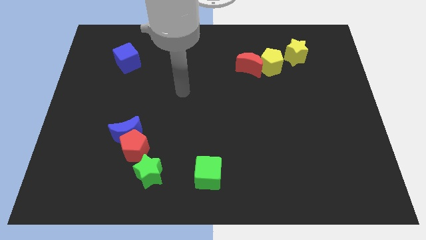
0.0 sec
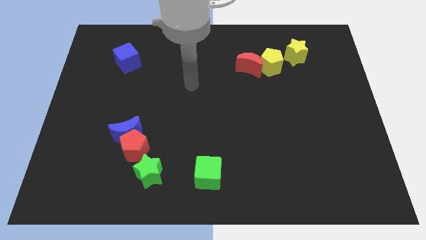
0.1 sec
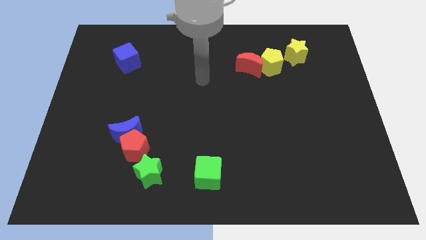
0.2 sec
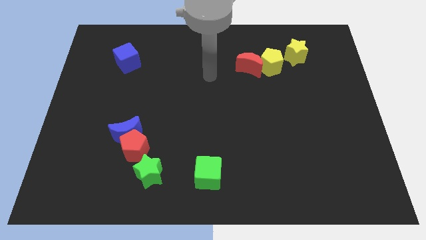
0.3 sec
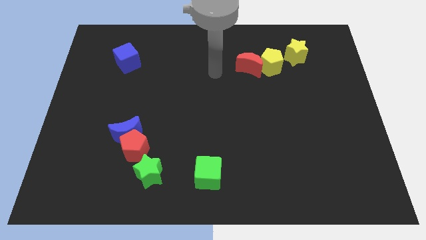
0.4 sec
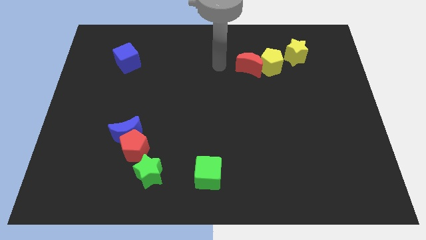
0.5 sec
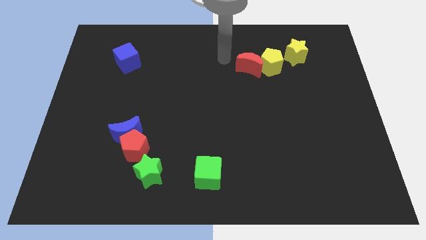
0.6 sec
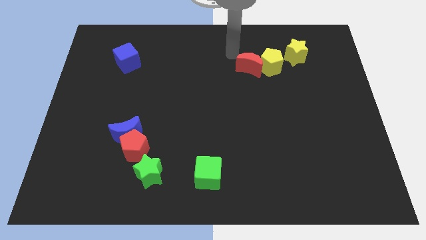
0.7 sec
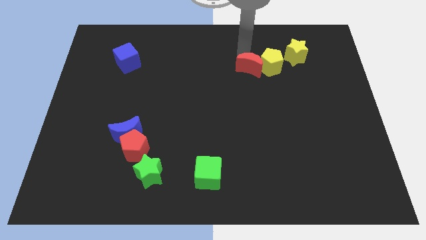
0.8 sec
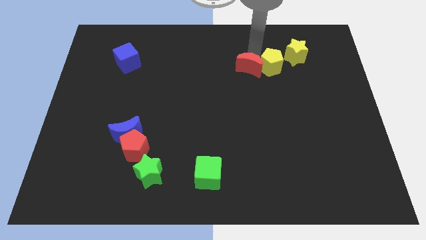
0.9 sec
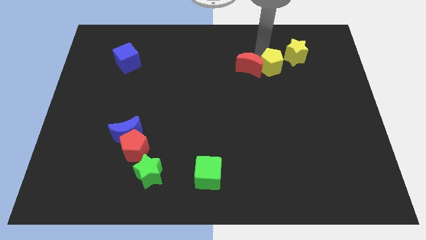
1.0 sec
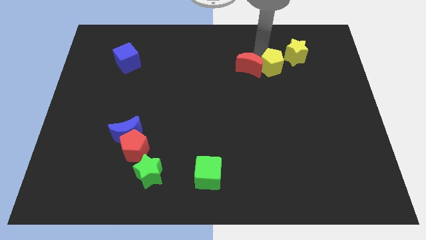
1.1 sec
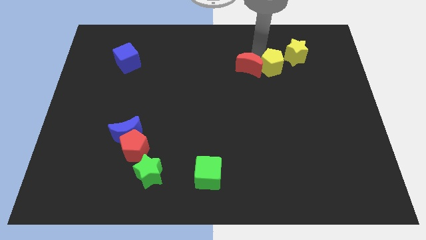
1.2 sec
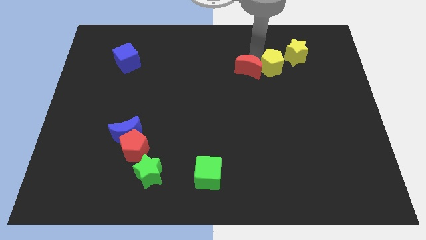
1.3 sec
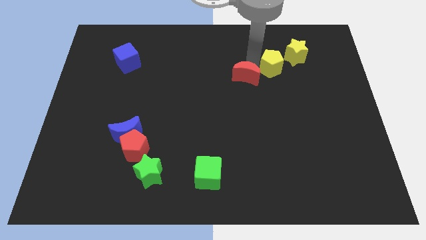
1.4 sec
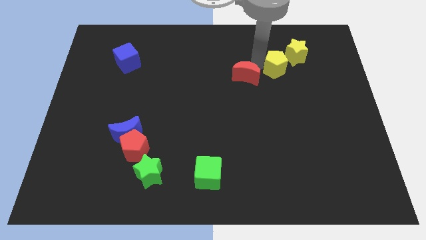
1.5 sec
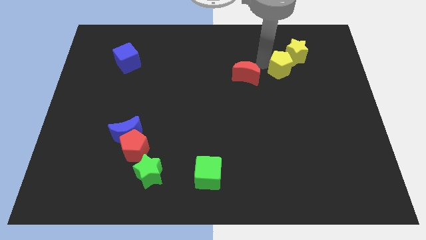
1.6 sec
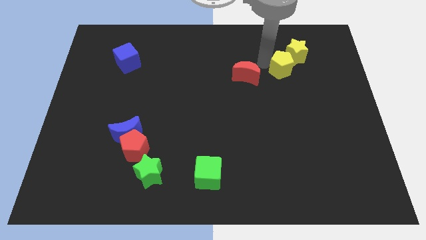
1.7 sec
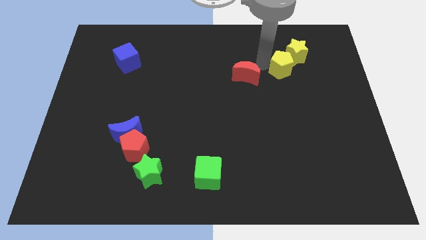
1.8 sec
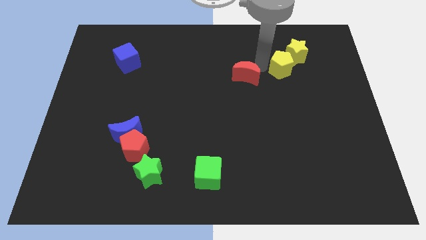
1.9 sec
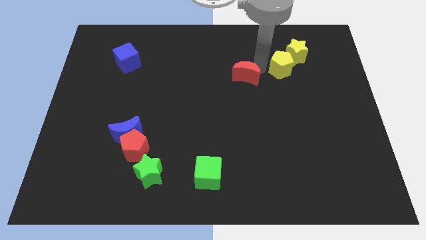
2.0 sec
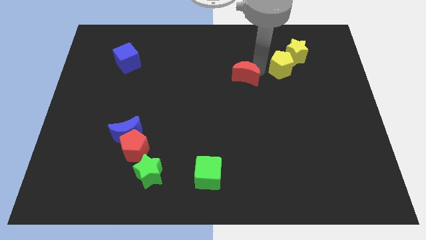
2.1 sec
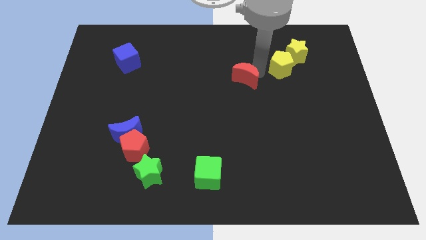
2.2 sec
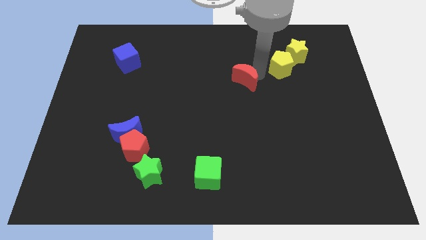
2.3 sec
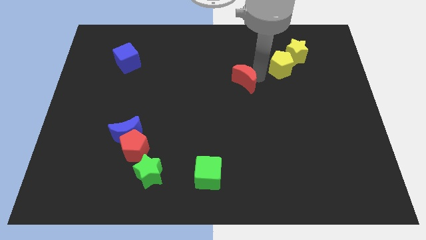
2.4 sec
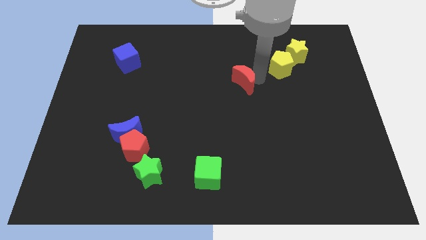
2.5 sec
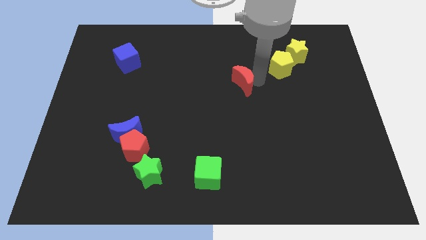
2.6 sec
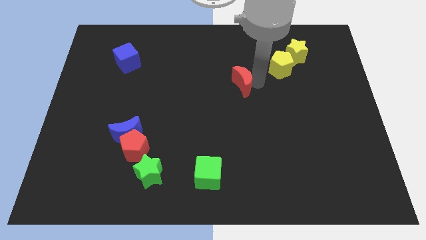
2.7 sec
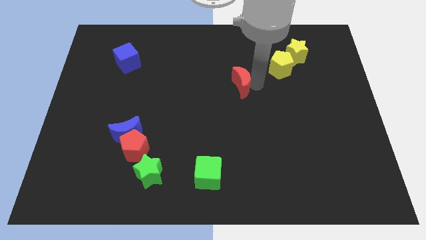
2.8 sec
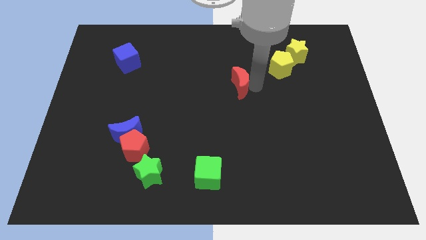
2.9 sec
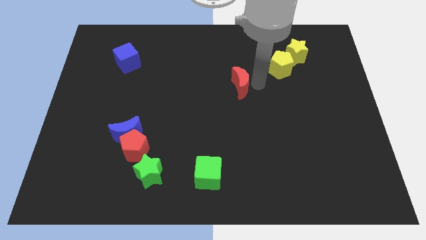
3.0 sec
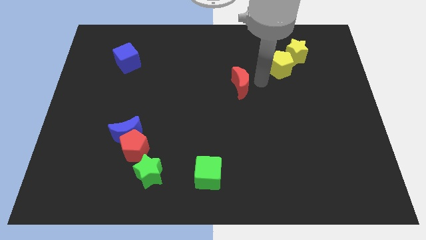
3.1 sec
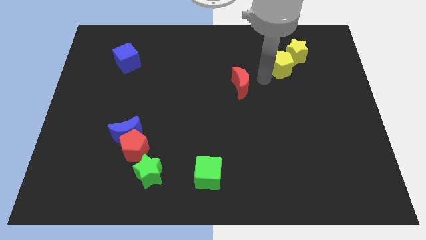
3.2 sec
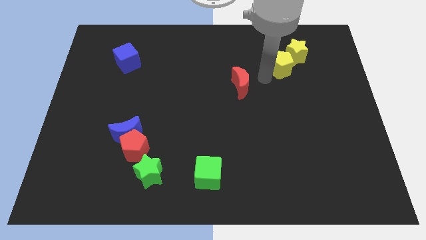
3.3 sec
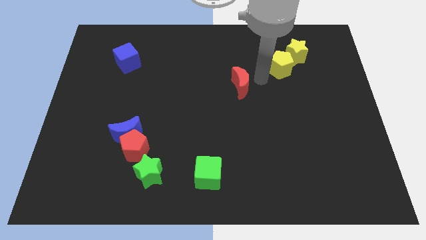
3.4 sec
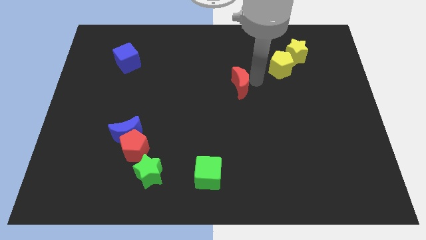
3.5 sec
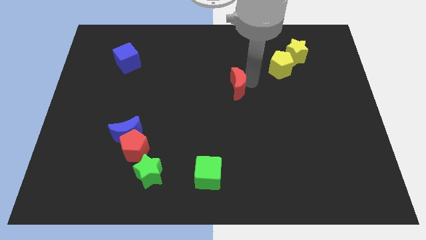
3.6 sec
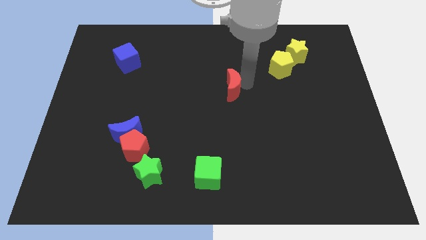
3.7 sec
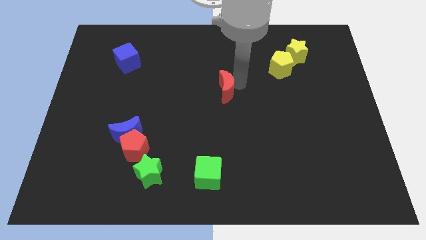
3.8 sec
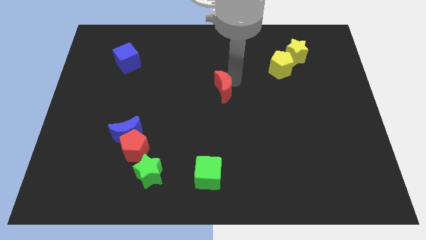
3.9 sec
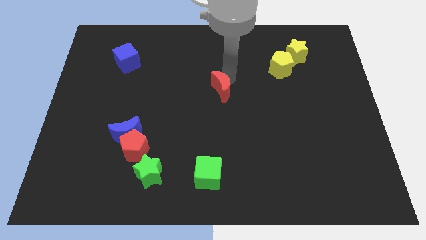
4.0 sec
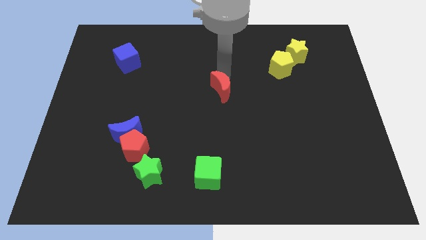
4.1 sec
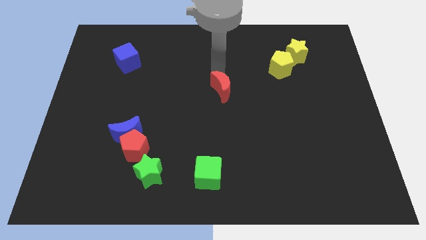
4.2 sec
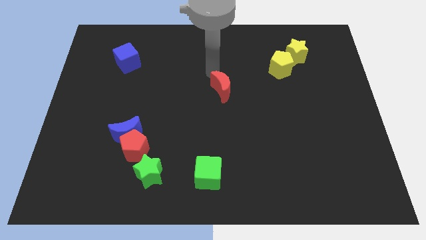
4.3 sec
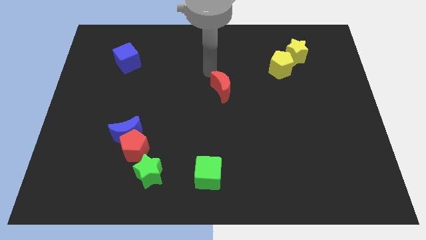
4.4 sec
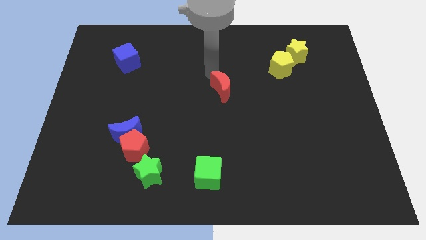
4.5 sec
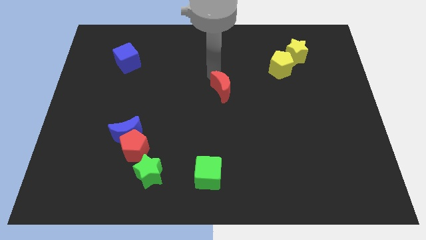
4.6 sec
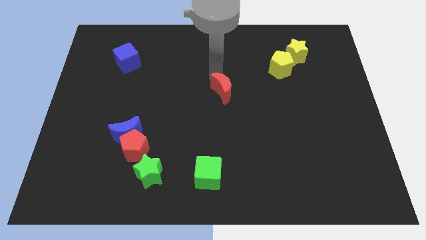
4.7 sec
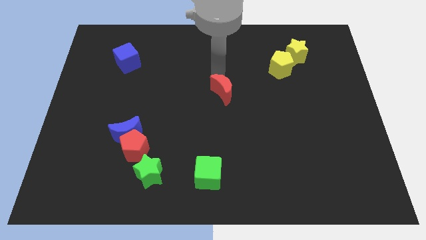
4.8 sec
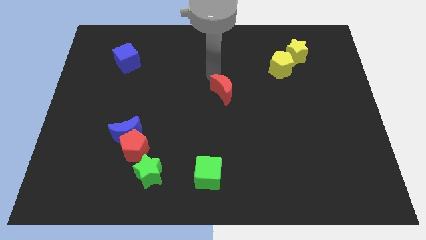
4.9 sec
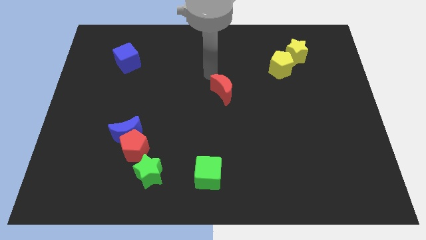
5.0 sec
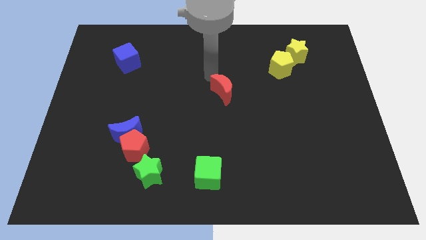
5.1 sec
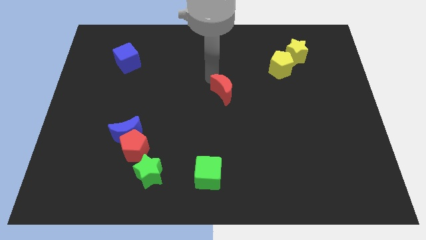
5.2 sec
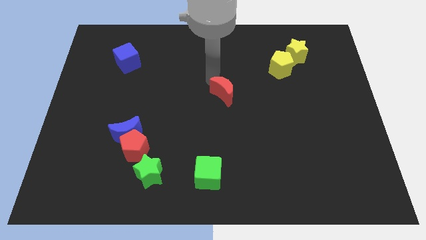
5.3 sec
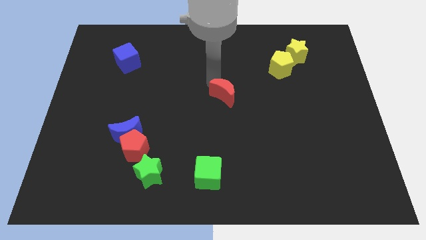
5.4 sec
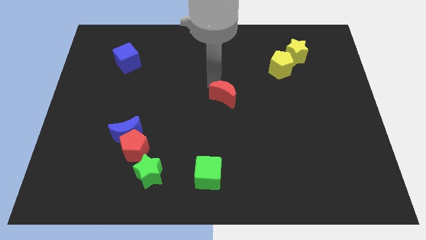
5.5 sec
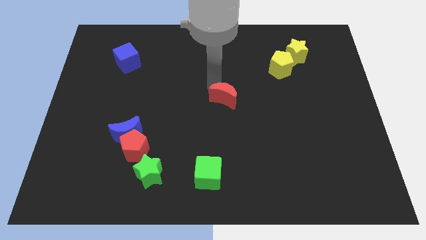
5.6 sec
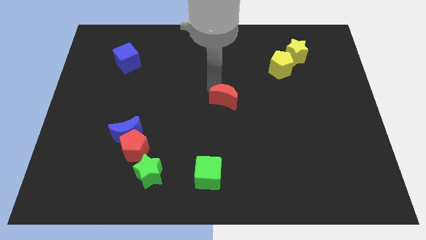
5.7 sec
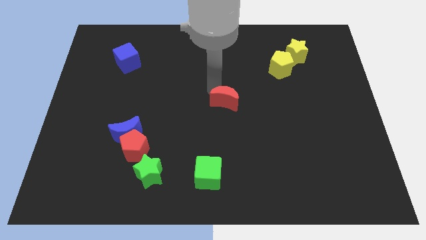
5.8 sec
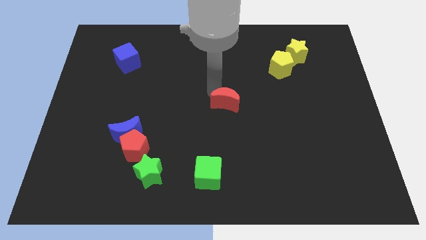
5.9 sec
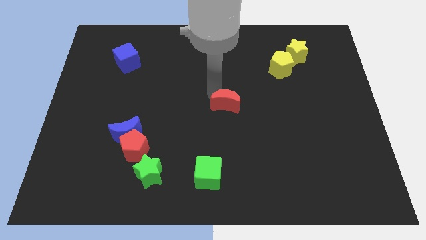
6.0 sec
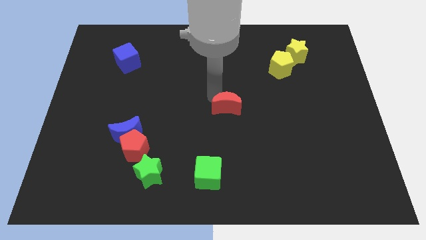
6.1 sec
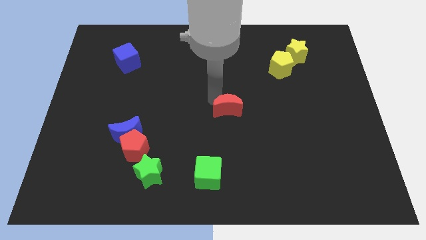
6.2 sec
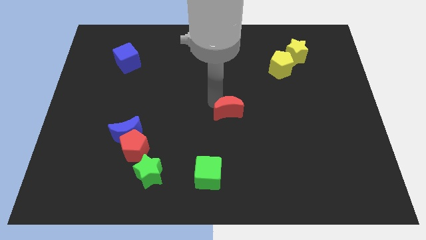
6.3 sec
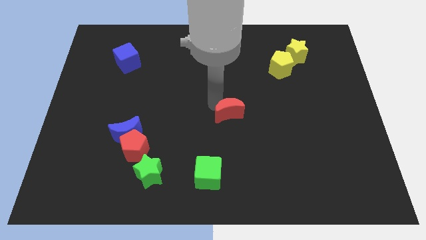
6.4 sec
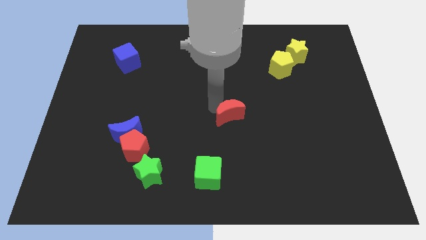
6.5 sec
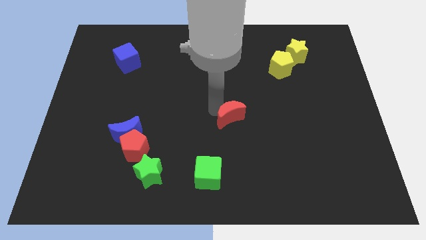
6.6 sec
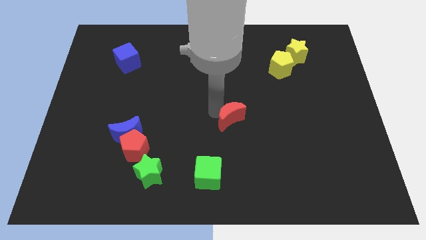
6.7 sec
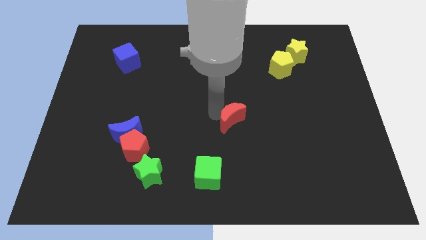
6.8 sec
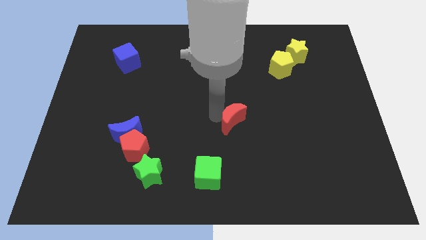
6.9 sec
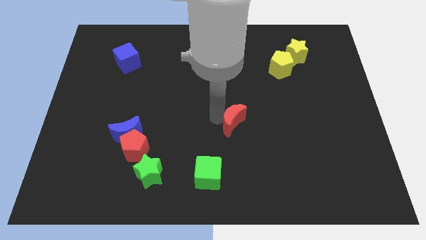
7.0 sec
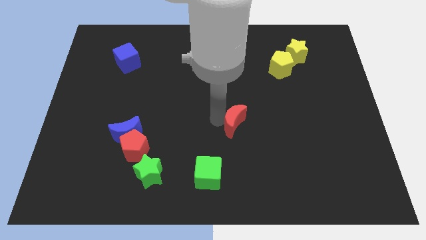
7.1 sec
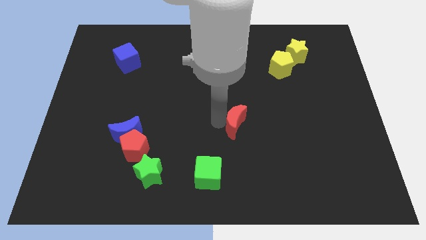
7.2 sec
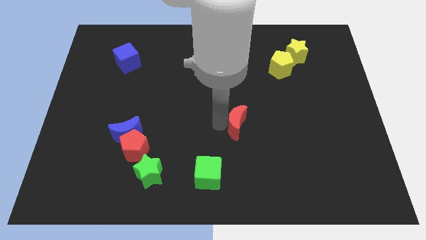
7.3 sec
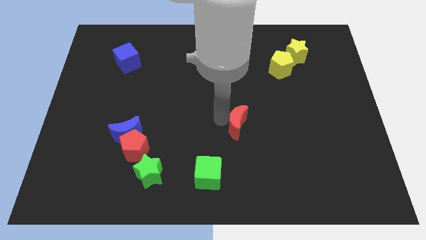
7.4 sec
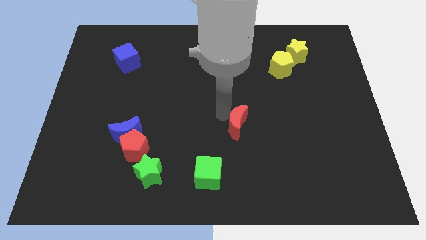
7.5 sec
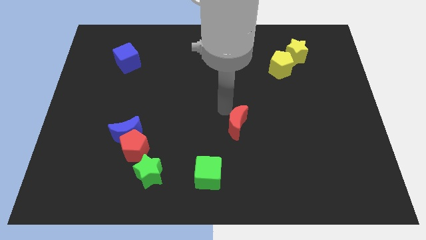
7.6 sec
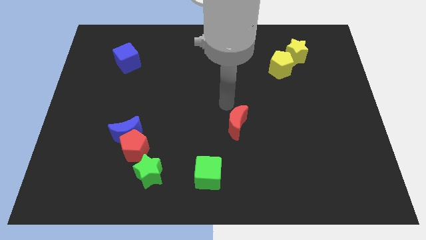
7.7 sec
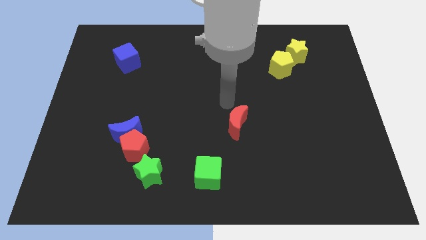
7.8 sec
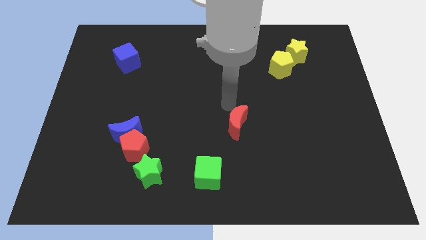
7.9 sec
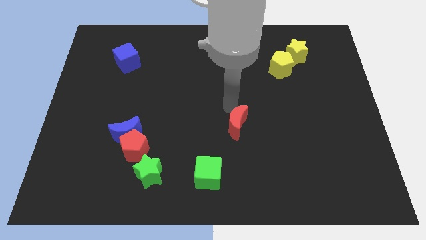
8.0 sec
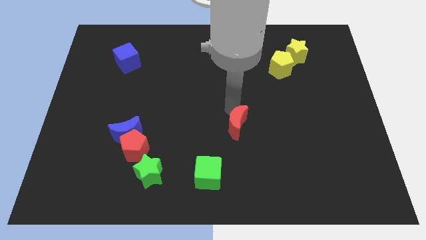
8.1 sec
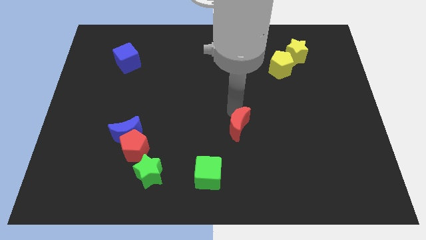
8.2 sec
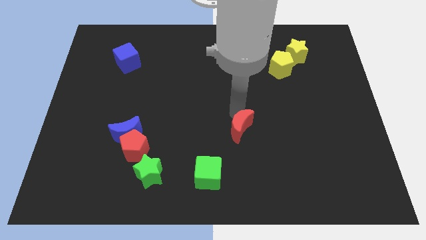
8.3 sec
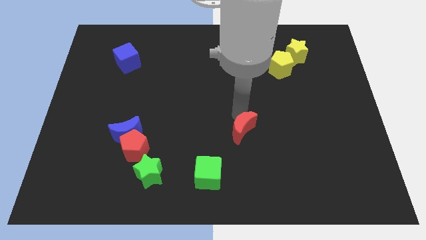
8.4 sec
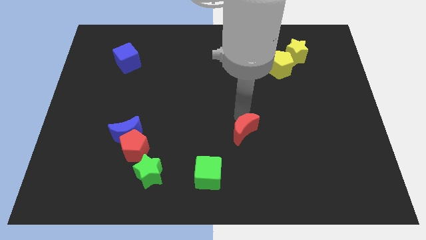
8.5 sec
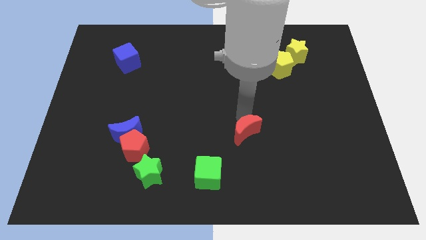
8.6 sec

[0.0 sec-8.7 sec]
push the red moon down
